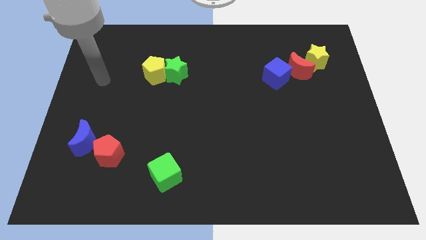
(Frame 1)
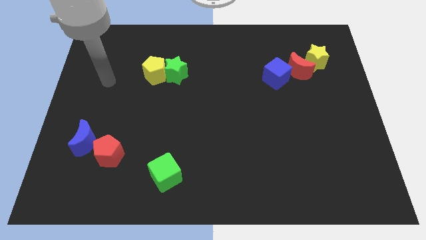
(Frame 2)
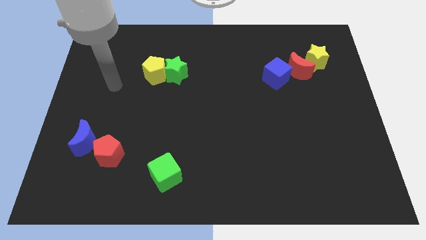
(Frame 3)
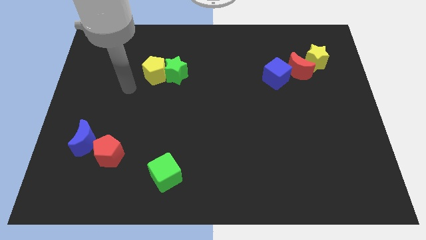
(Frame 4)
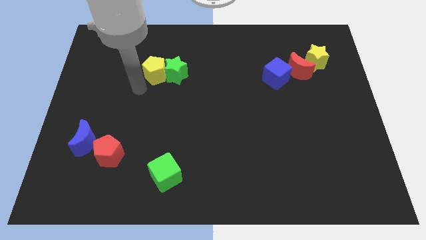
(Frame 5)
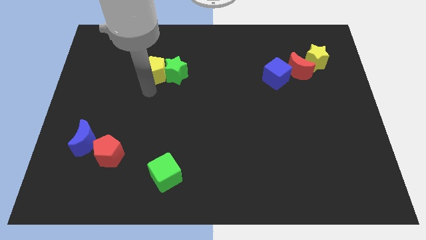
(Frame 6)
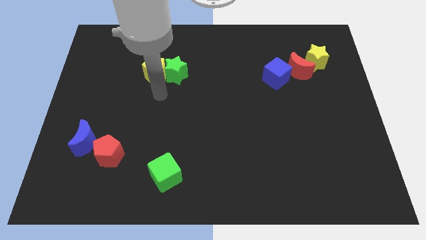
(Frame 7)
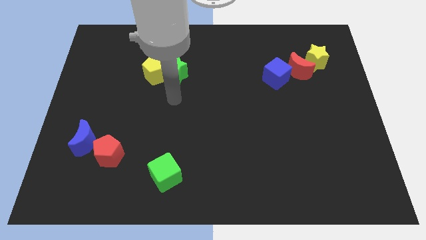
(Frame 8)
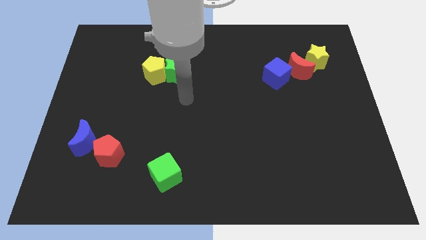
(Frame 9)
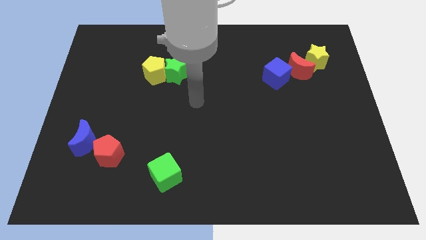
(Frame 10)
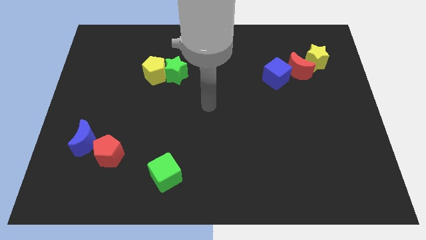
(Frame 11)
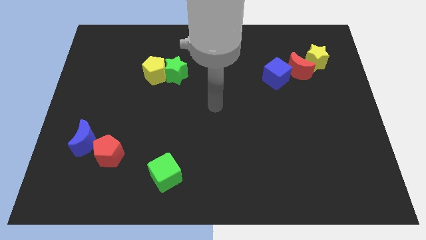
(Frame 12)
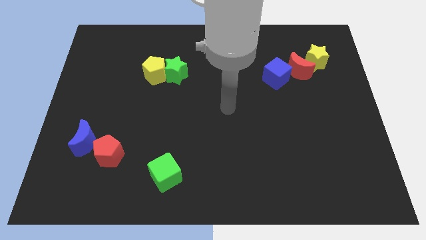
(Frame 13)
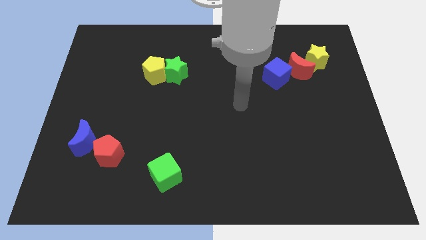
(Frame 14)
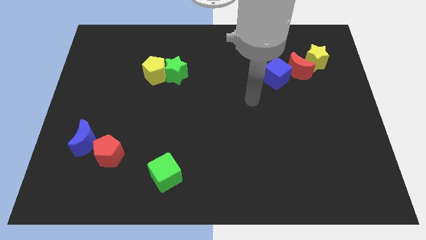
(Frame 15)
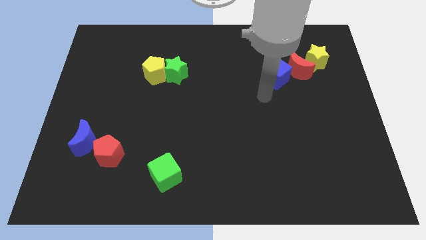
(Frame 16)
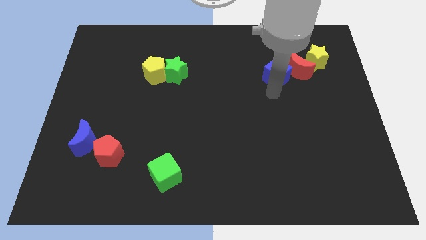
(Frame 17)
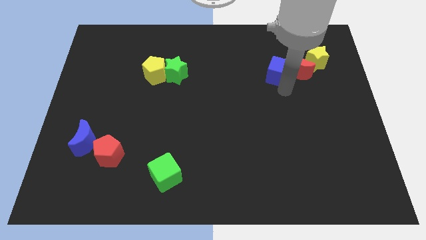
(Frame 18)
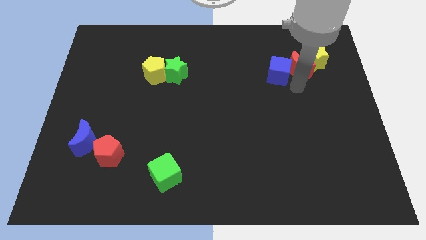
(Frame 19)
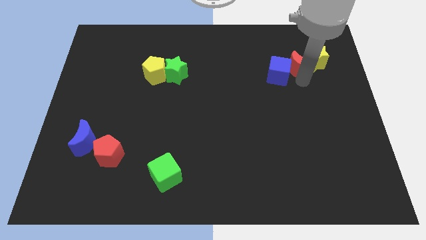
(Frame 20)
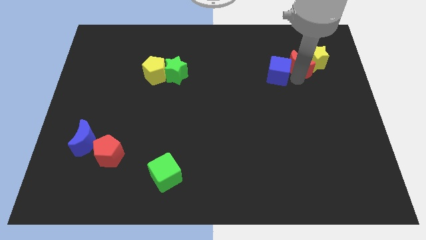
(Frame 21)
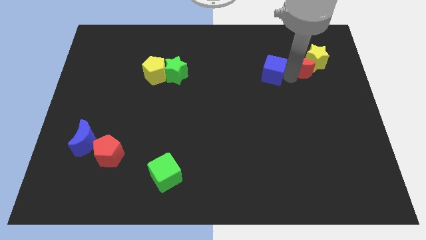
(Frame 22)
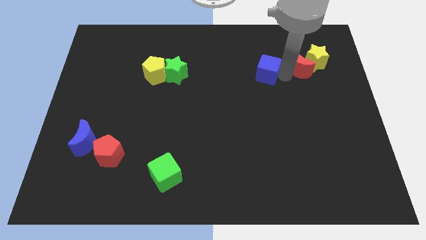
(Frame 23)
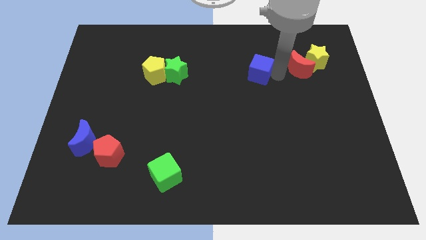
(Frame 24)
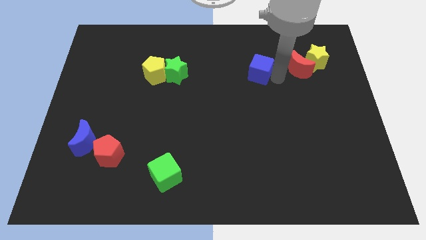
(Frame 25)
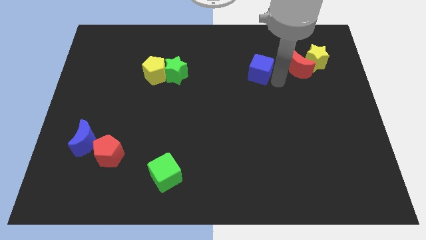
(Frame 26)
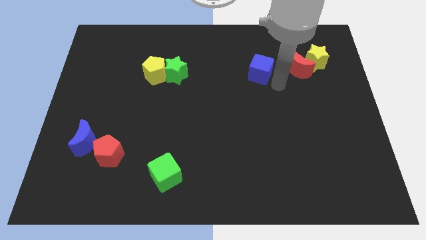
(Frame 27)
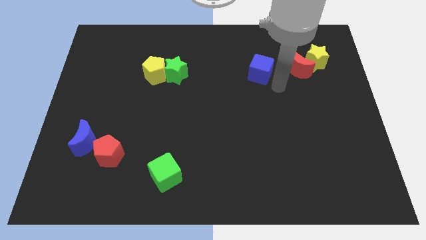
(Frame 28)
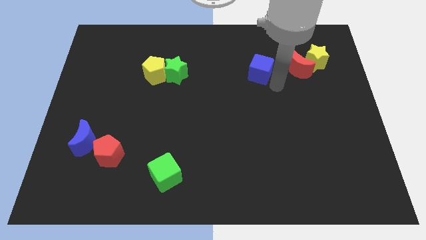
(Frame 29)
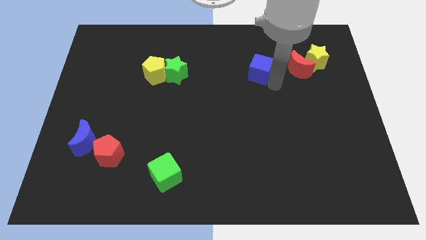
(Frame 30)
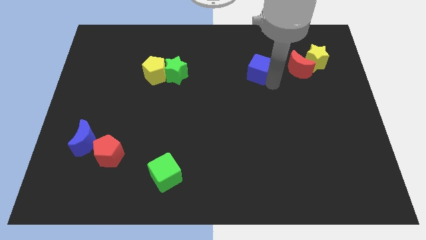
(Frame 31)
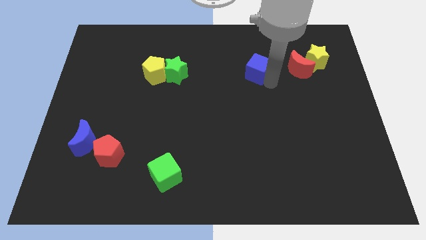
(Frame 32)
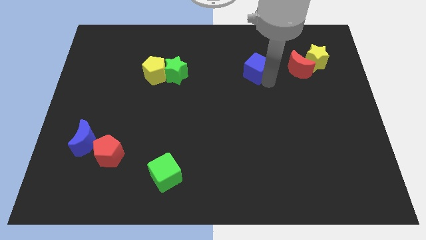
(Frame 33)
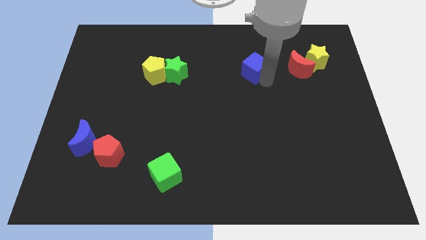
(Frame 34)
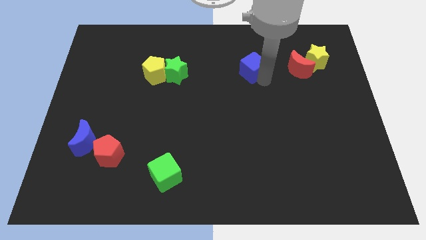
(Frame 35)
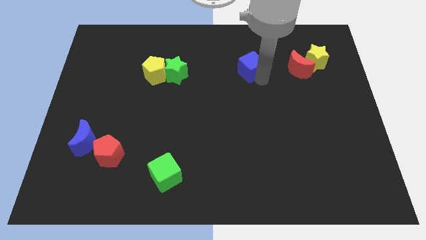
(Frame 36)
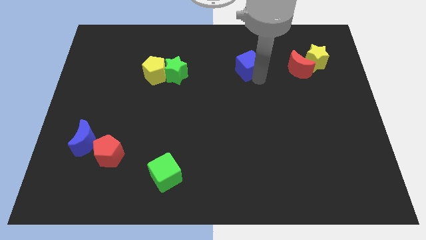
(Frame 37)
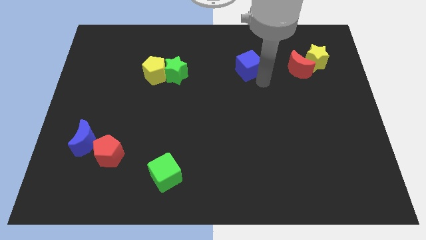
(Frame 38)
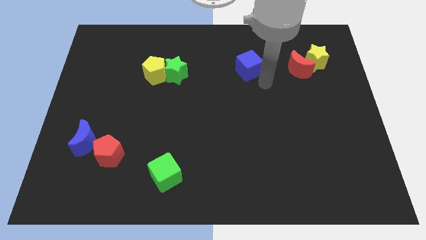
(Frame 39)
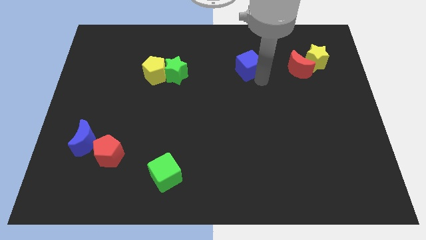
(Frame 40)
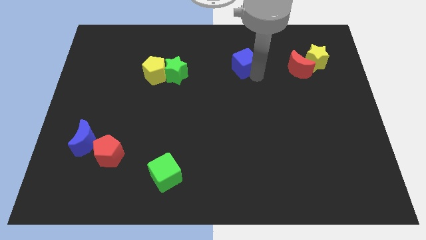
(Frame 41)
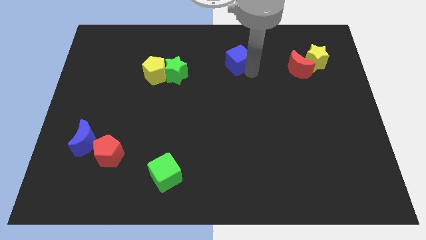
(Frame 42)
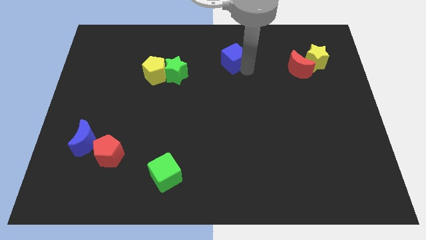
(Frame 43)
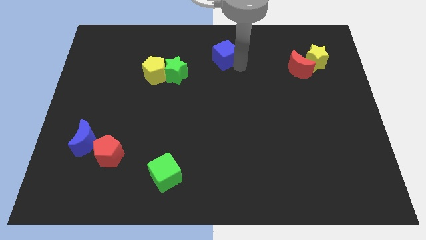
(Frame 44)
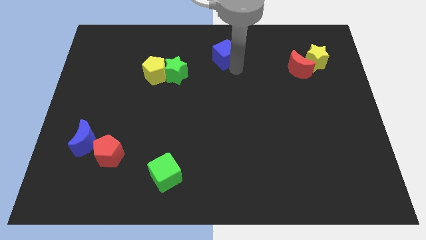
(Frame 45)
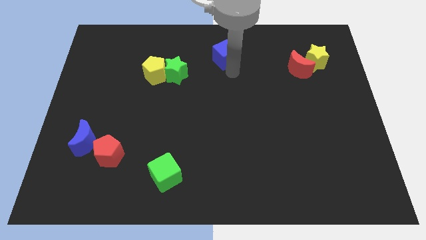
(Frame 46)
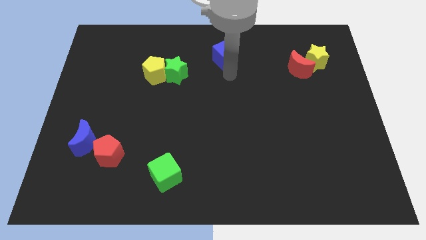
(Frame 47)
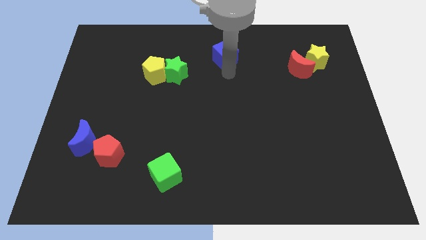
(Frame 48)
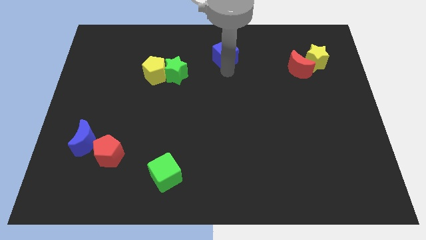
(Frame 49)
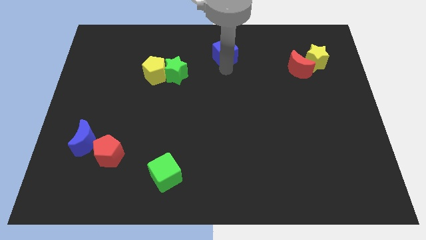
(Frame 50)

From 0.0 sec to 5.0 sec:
move the blue cube to the towards your base
